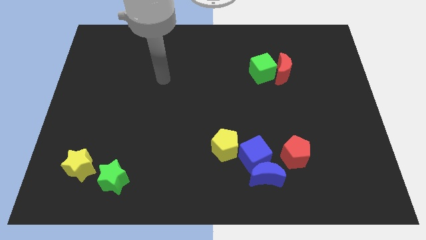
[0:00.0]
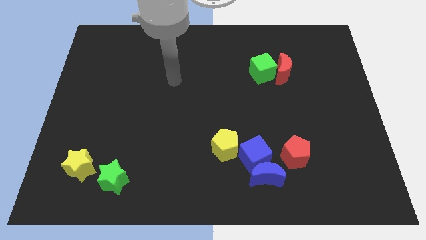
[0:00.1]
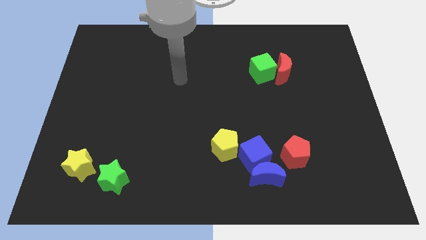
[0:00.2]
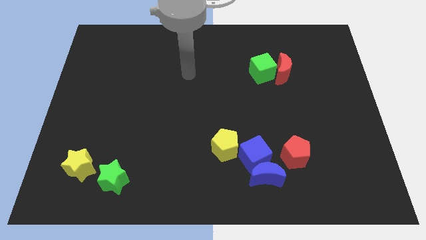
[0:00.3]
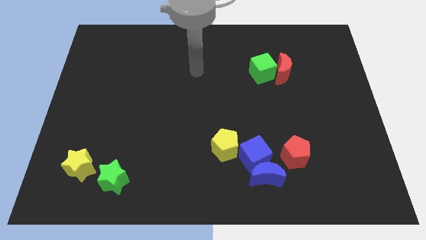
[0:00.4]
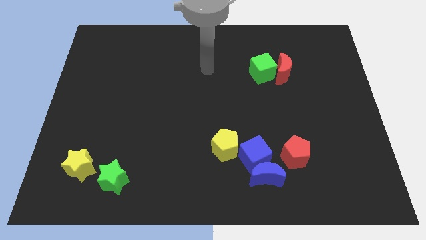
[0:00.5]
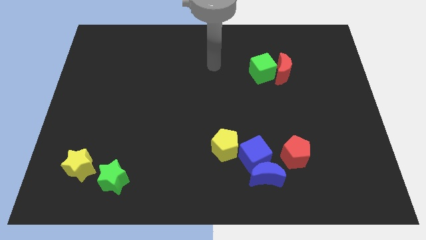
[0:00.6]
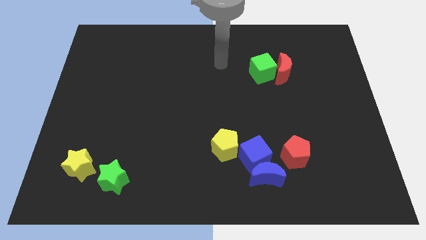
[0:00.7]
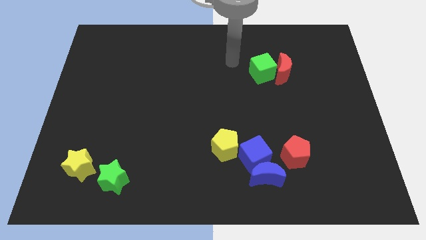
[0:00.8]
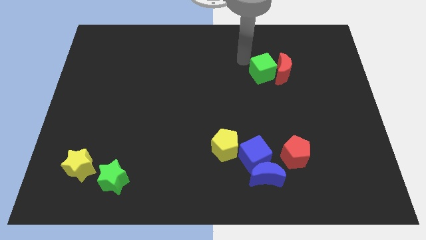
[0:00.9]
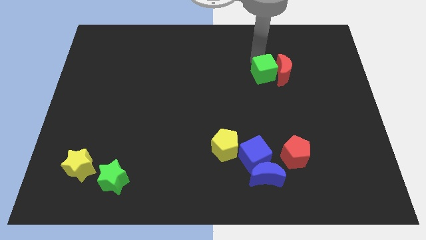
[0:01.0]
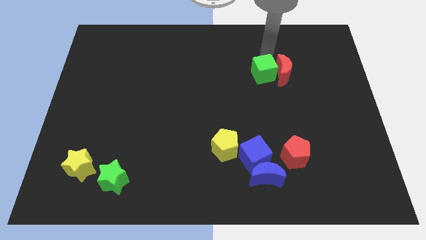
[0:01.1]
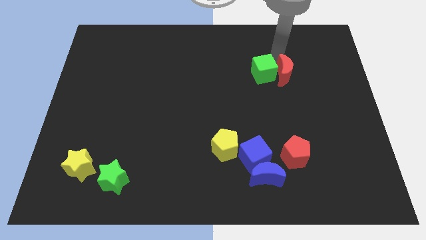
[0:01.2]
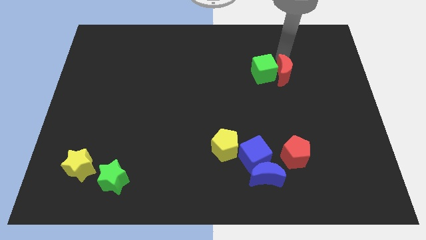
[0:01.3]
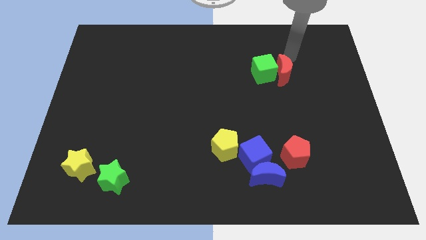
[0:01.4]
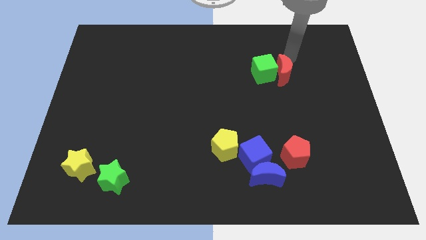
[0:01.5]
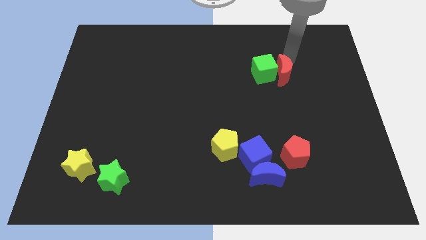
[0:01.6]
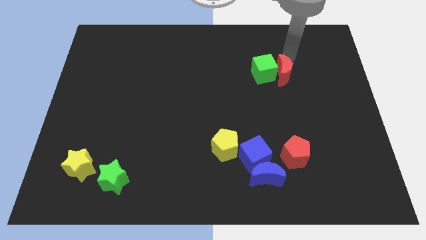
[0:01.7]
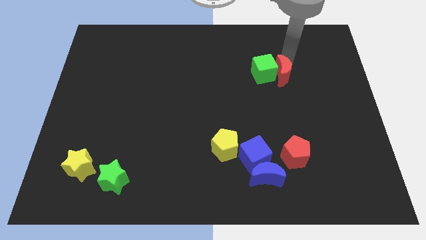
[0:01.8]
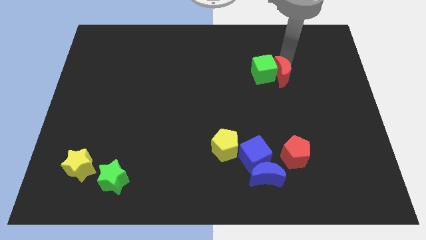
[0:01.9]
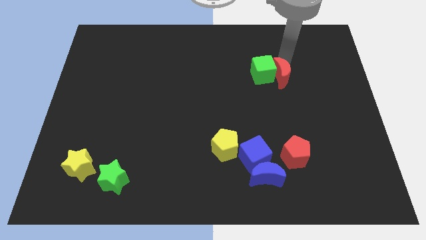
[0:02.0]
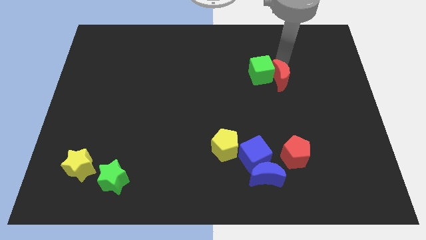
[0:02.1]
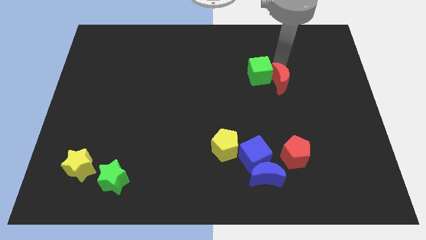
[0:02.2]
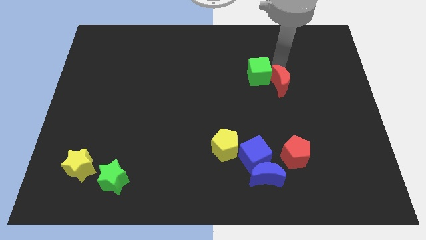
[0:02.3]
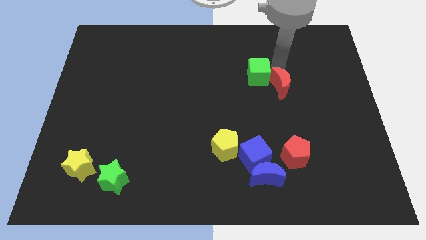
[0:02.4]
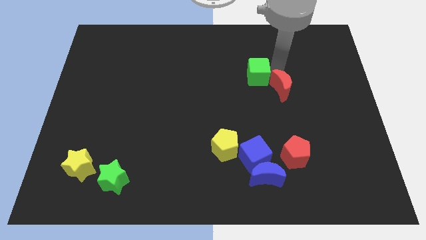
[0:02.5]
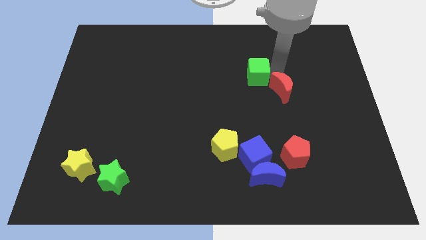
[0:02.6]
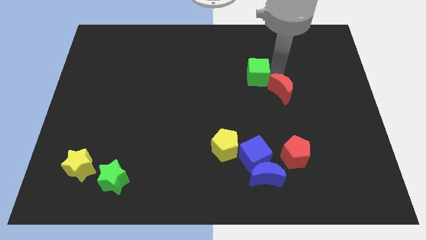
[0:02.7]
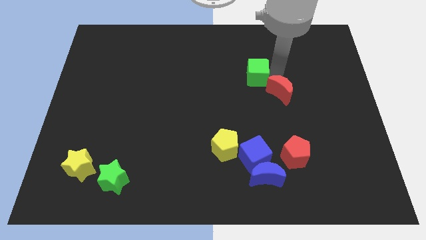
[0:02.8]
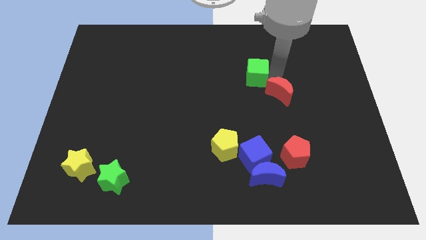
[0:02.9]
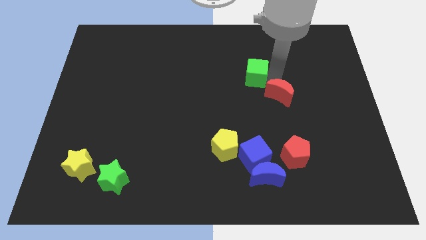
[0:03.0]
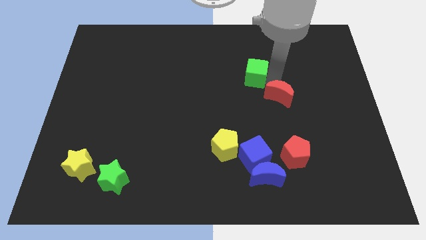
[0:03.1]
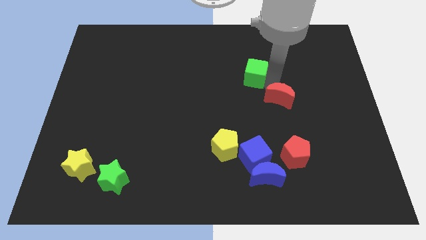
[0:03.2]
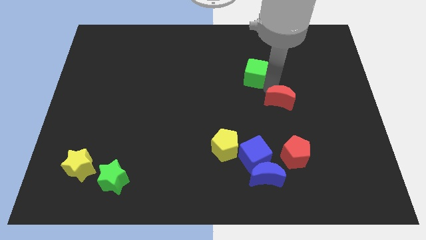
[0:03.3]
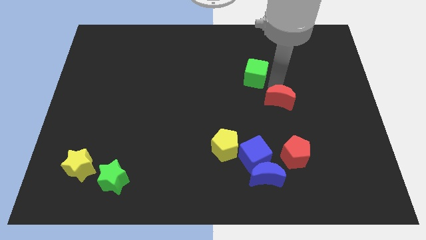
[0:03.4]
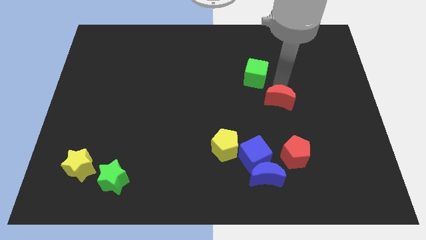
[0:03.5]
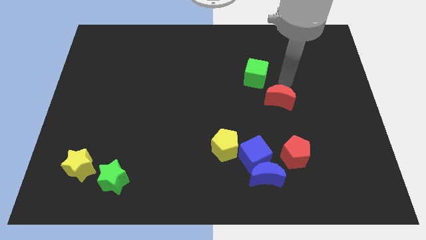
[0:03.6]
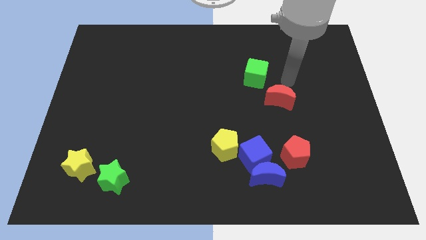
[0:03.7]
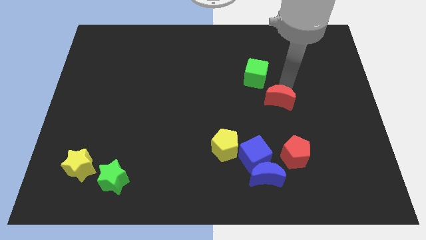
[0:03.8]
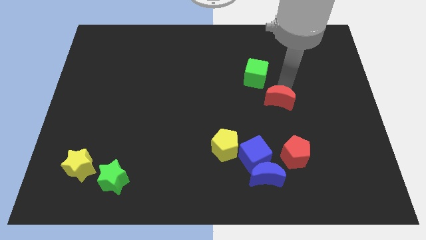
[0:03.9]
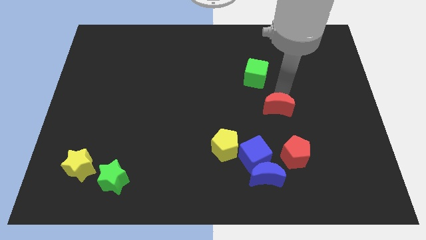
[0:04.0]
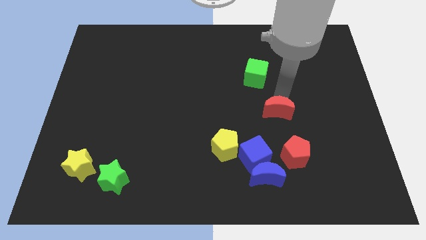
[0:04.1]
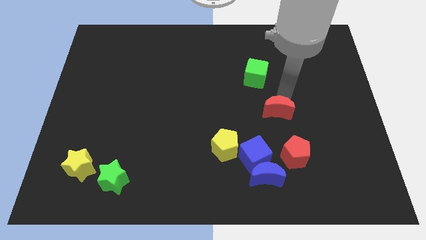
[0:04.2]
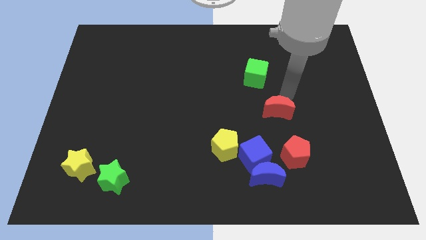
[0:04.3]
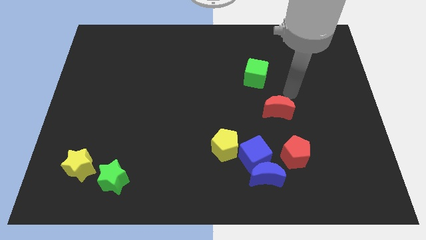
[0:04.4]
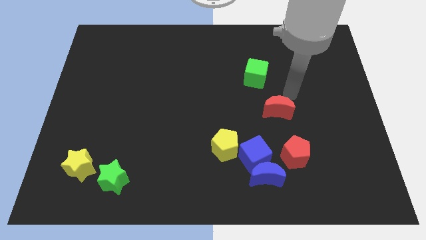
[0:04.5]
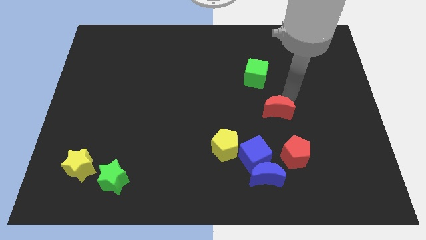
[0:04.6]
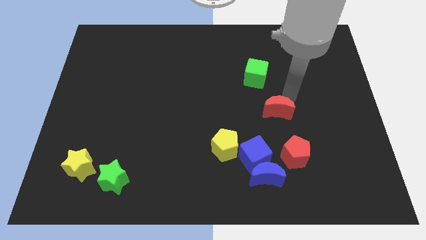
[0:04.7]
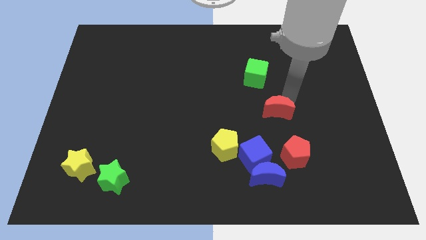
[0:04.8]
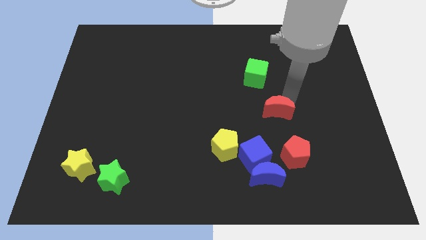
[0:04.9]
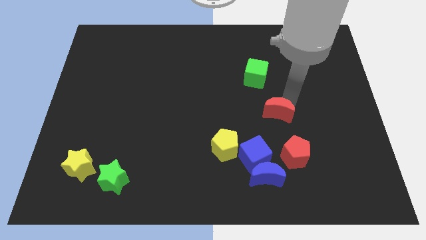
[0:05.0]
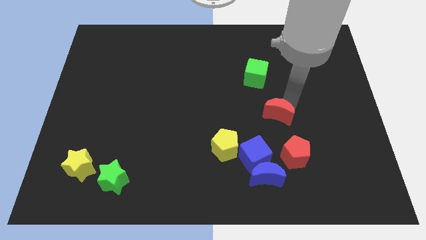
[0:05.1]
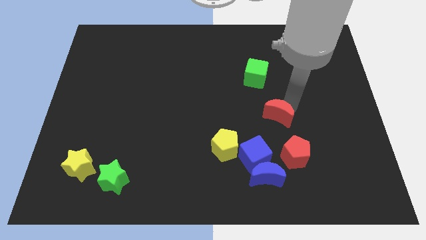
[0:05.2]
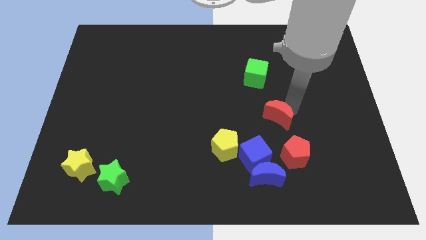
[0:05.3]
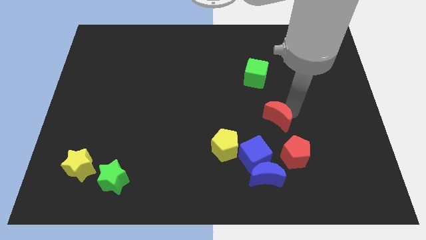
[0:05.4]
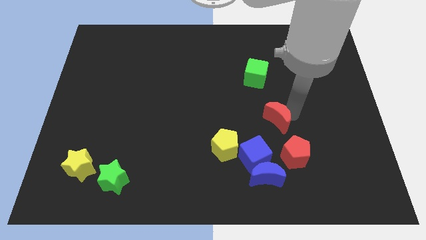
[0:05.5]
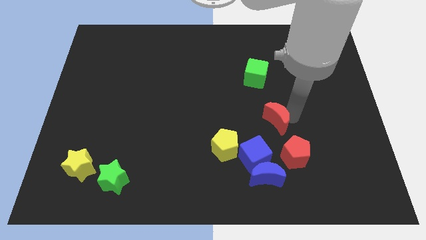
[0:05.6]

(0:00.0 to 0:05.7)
put the red moon to the top side of the blue moon

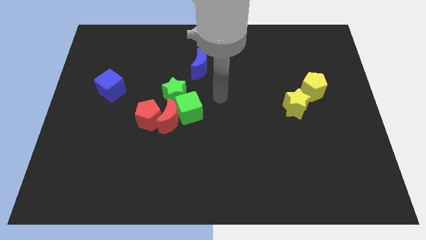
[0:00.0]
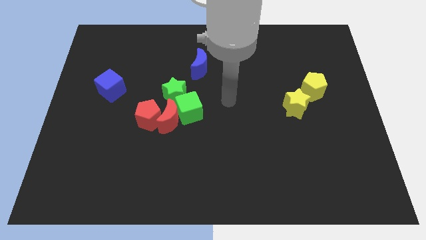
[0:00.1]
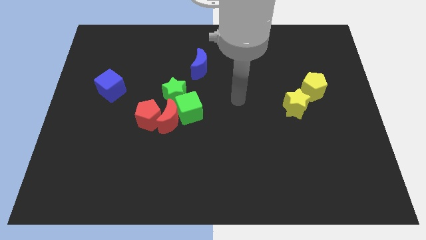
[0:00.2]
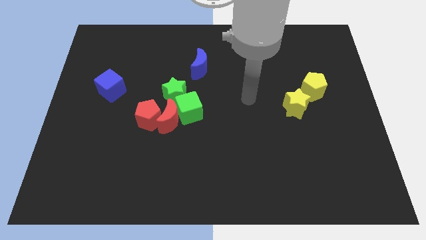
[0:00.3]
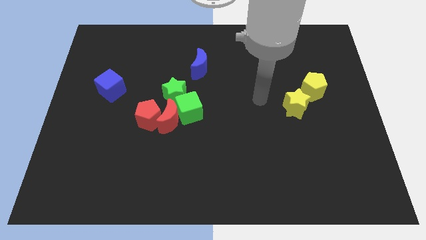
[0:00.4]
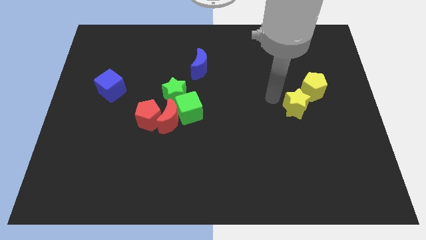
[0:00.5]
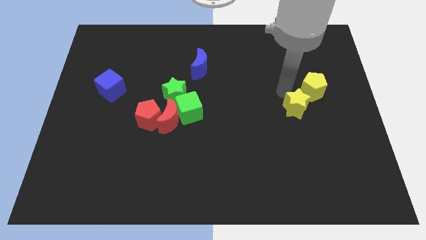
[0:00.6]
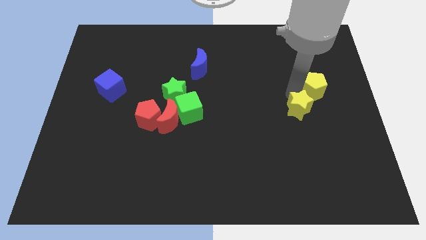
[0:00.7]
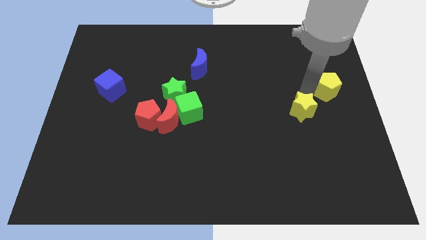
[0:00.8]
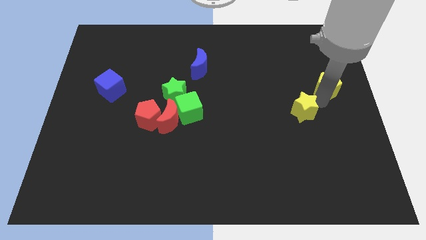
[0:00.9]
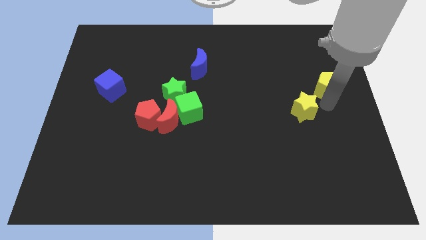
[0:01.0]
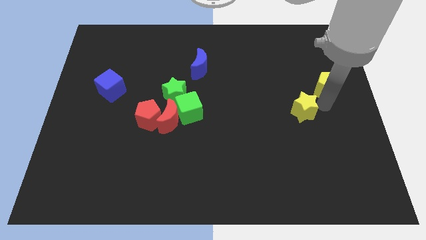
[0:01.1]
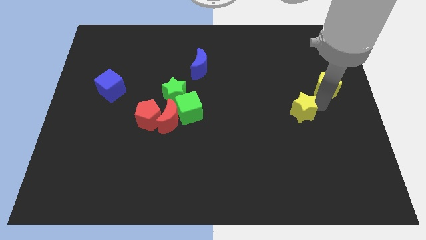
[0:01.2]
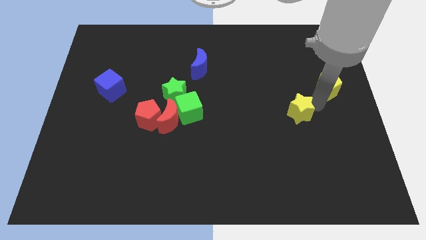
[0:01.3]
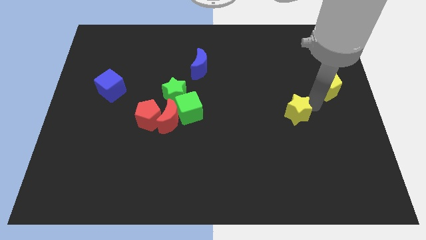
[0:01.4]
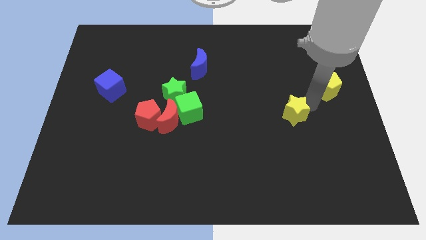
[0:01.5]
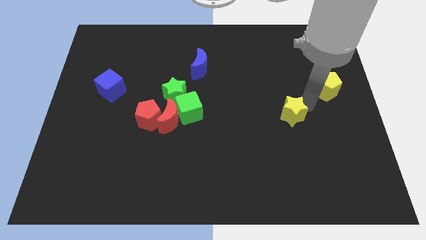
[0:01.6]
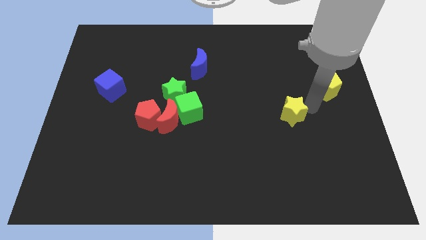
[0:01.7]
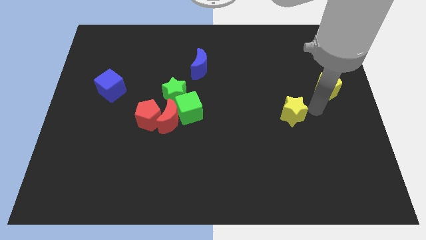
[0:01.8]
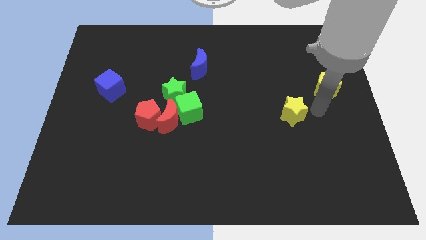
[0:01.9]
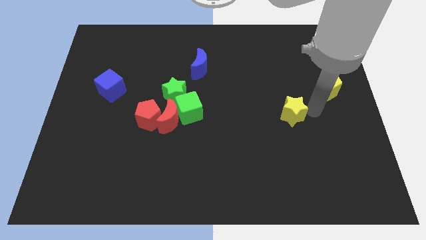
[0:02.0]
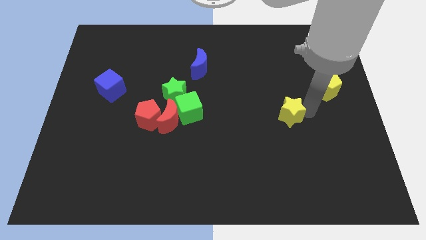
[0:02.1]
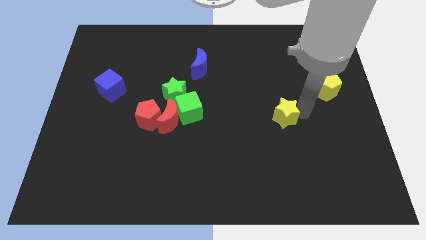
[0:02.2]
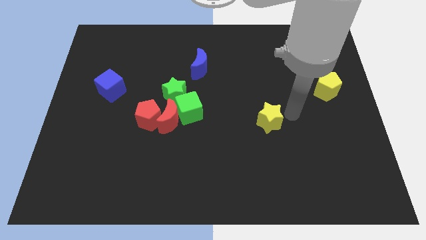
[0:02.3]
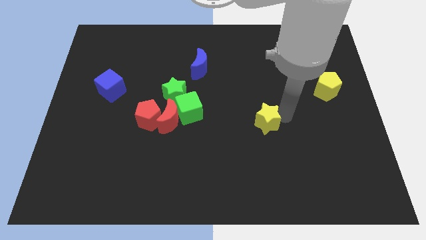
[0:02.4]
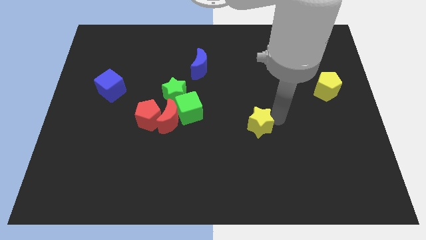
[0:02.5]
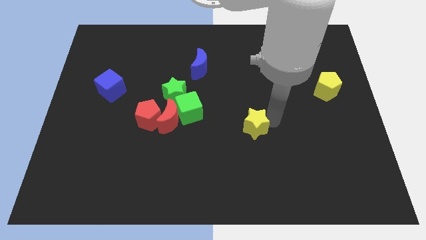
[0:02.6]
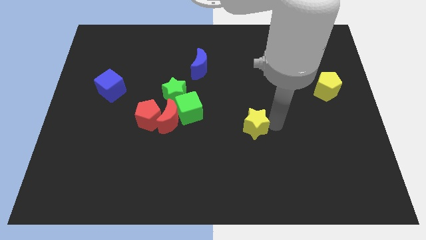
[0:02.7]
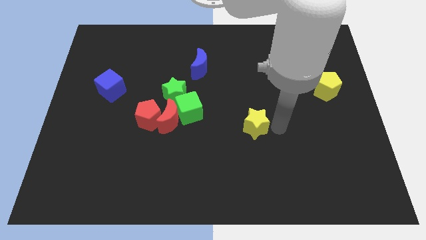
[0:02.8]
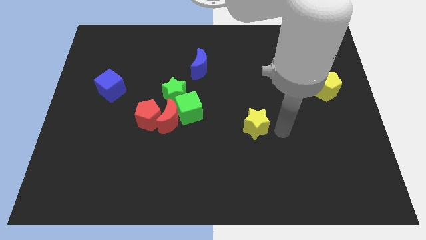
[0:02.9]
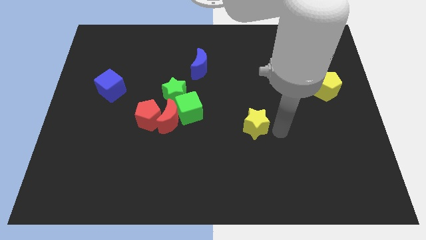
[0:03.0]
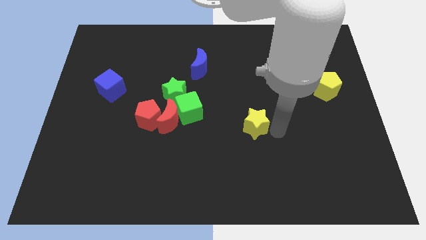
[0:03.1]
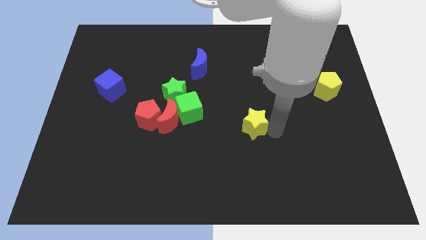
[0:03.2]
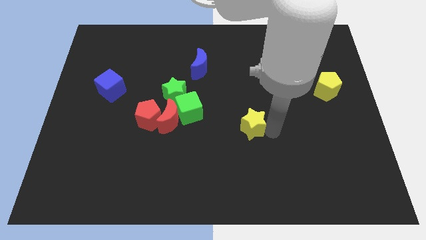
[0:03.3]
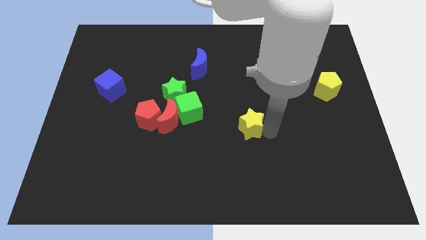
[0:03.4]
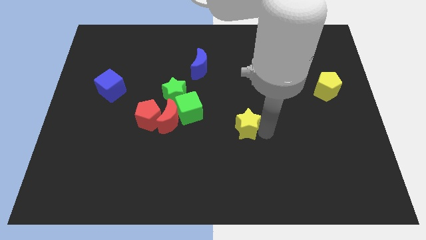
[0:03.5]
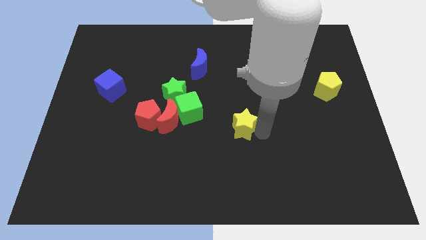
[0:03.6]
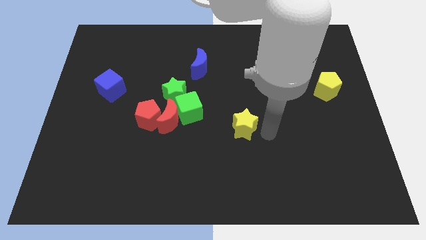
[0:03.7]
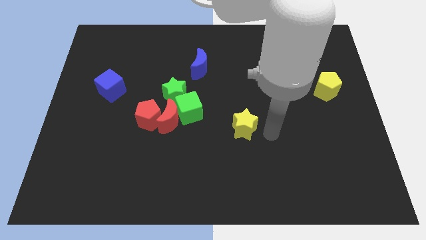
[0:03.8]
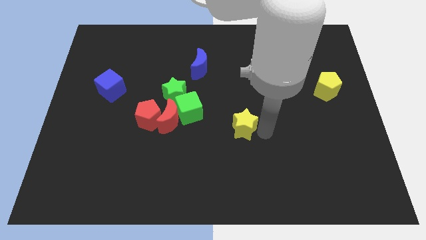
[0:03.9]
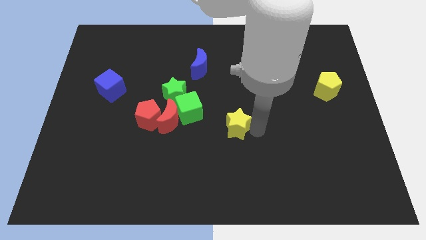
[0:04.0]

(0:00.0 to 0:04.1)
push the yellow star to the right side of the red moon
